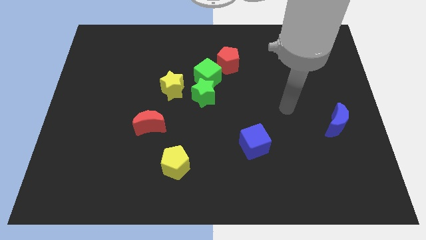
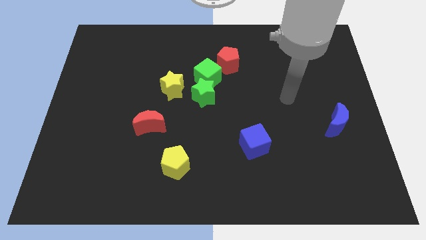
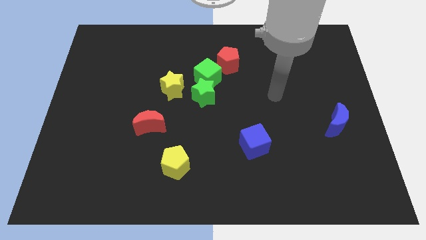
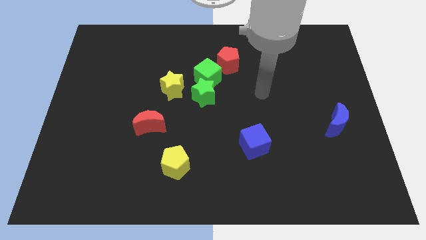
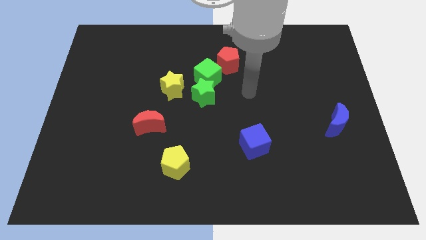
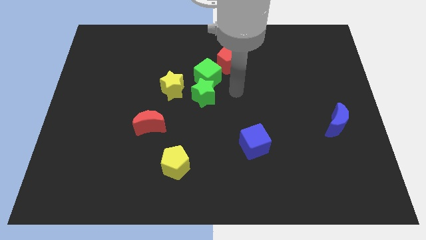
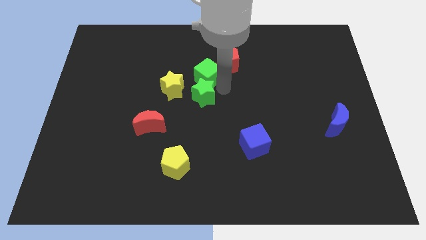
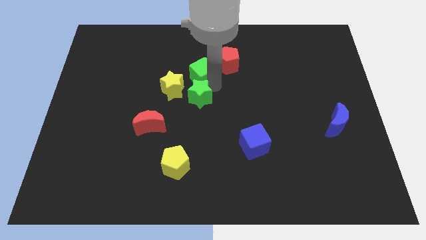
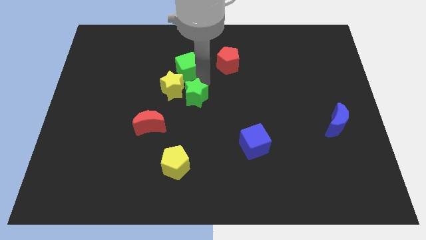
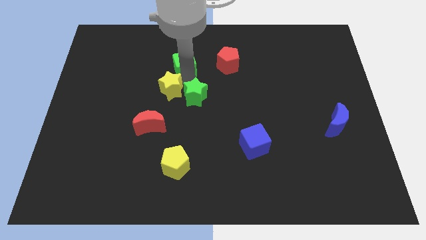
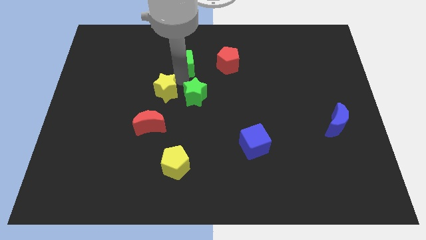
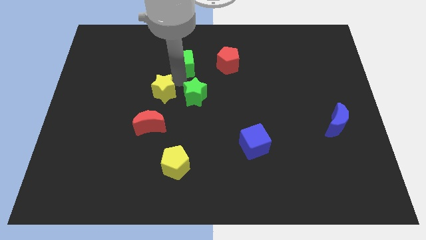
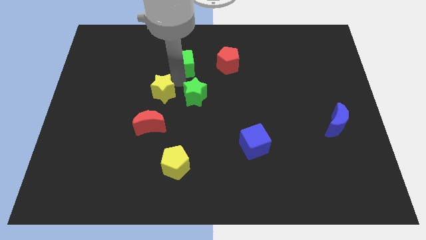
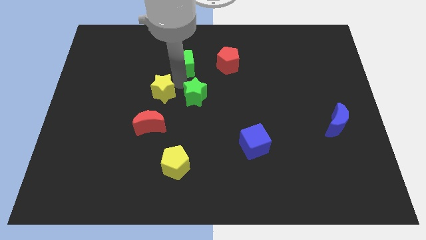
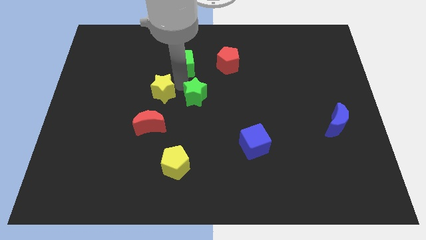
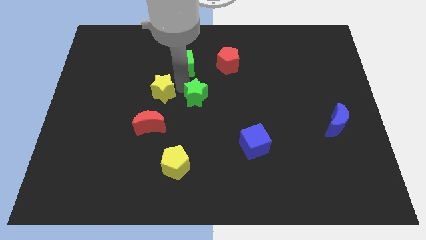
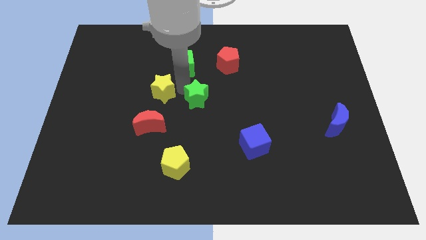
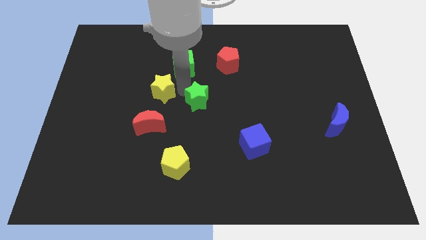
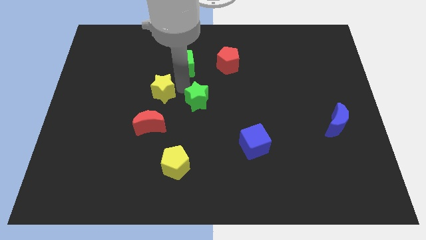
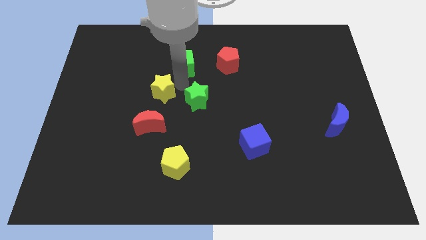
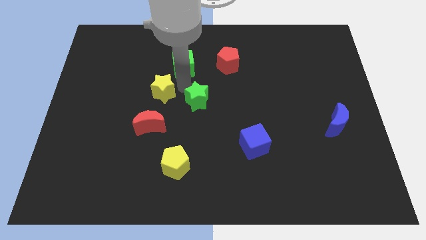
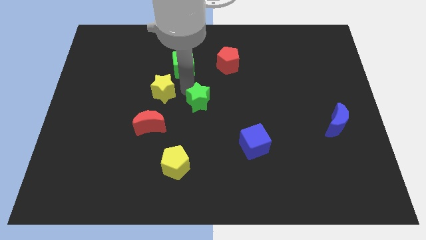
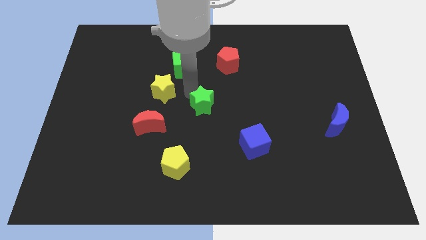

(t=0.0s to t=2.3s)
separate the green star from the green cube and yellow star

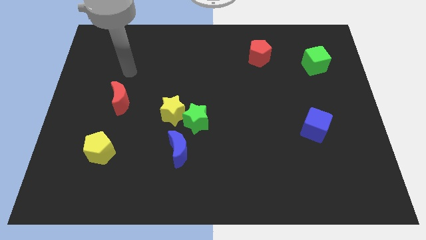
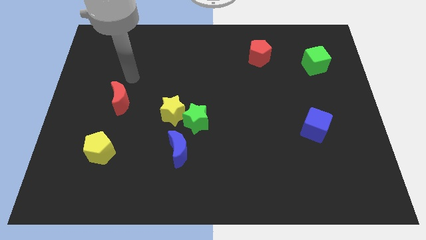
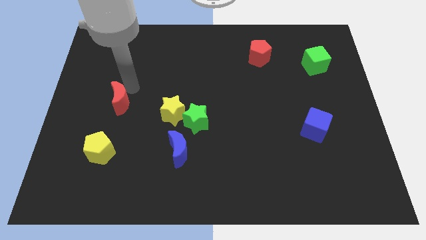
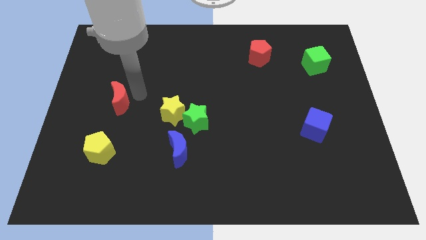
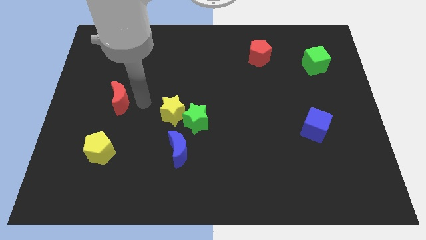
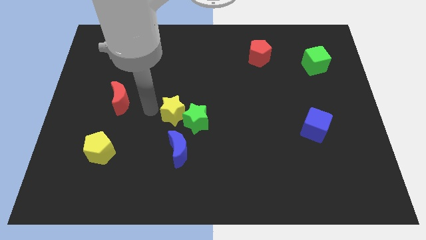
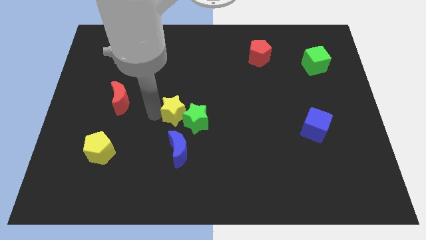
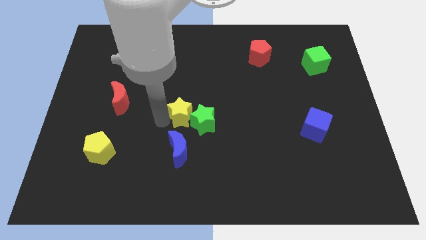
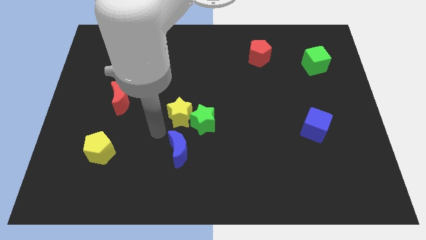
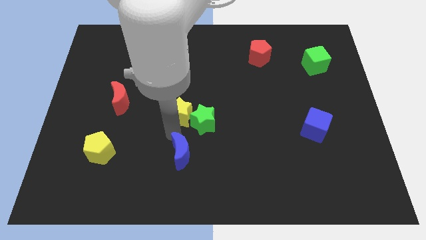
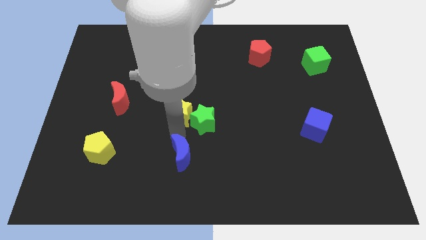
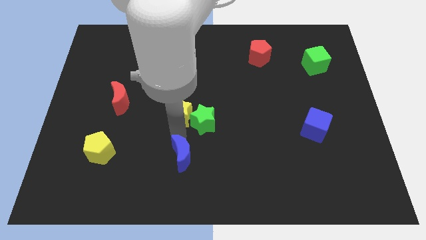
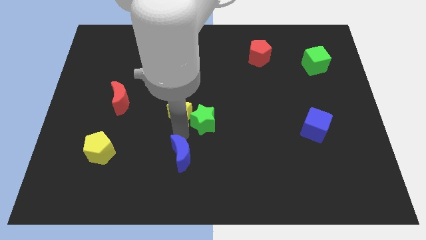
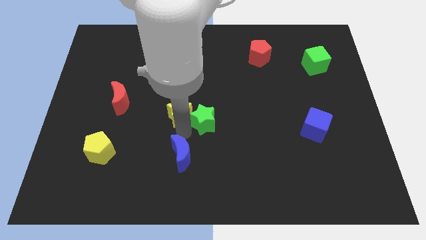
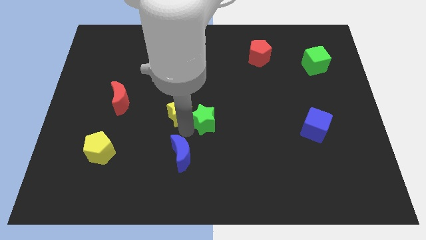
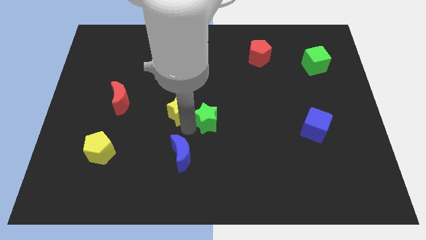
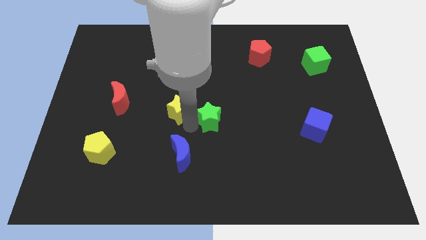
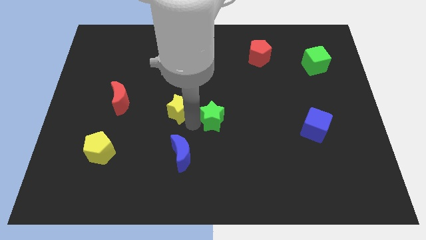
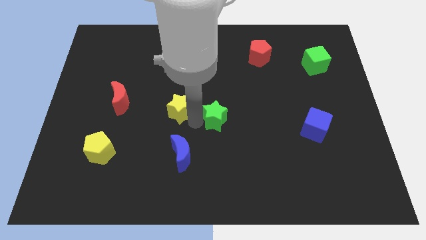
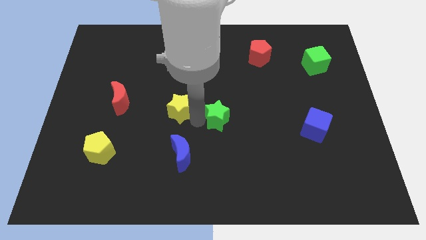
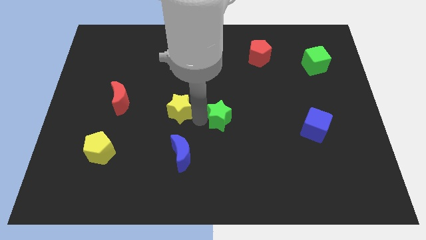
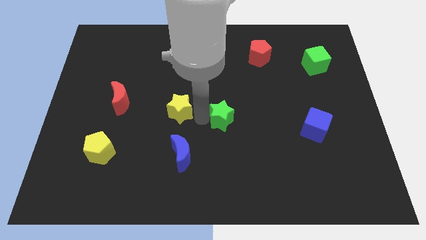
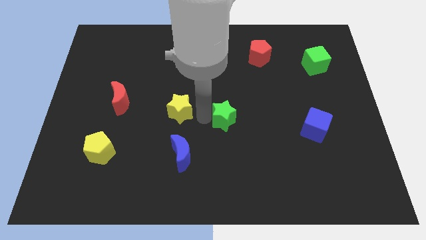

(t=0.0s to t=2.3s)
move the green star away from the yellow star and blue moon

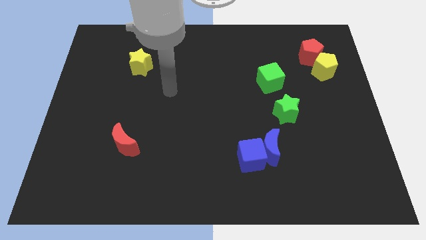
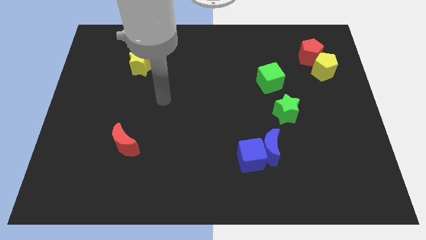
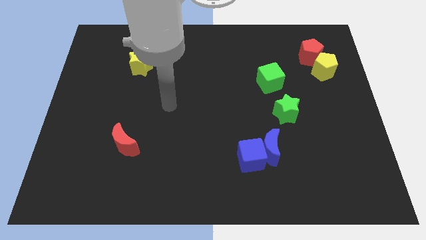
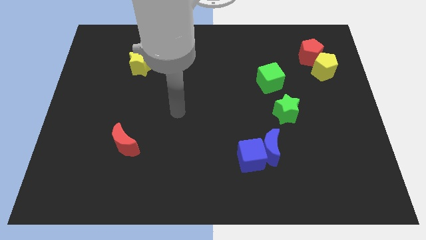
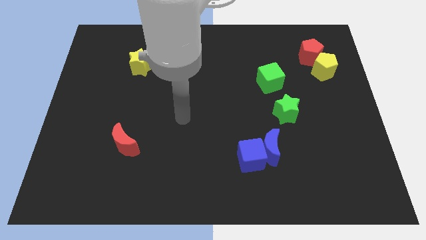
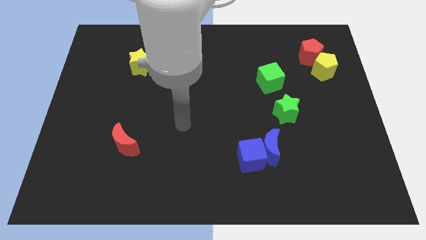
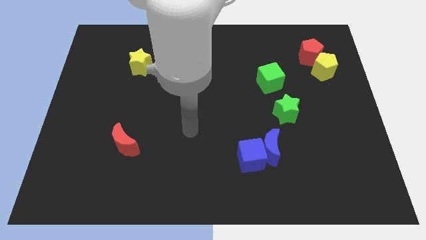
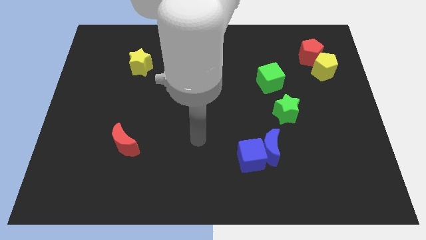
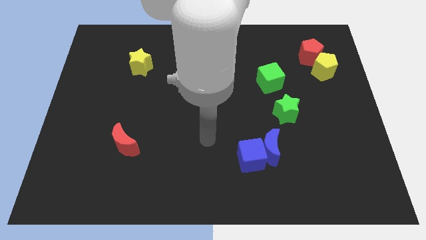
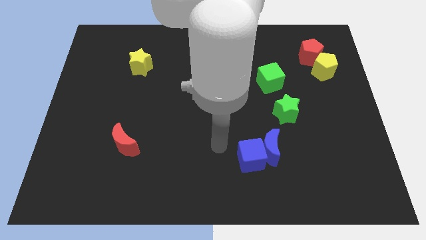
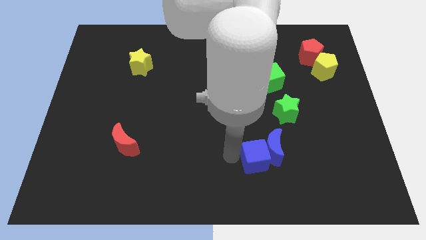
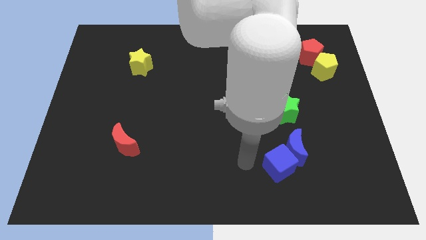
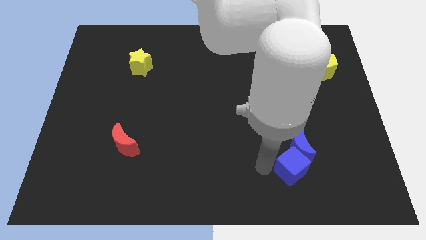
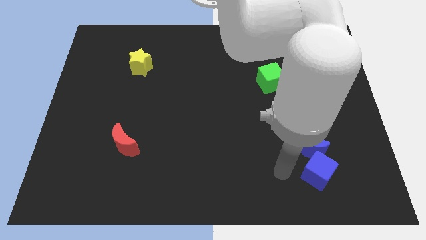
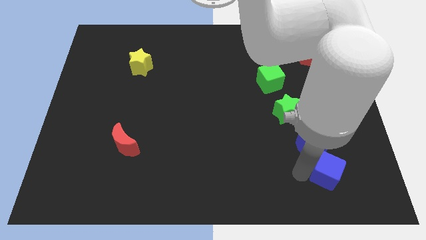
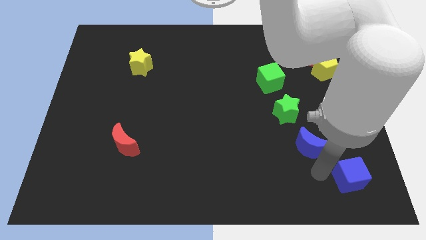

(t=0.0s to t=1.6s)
move the blue moon away from the blue cube

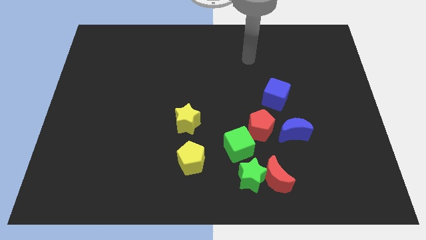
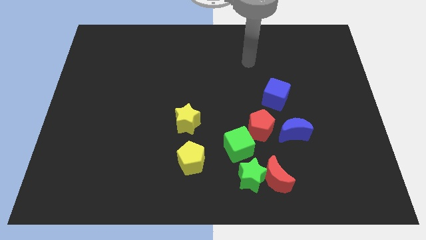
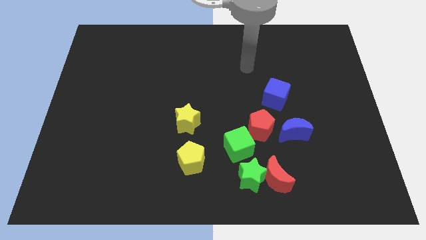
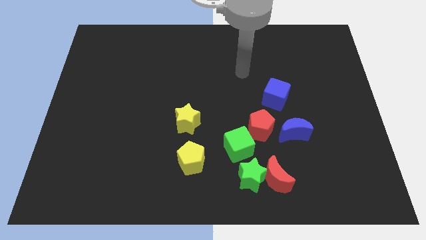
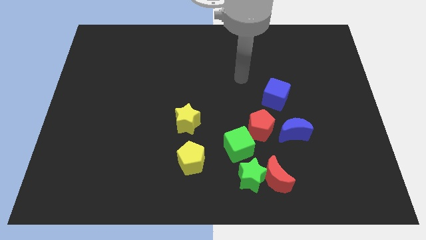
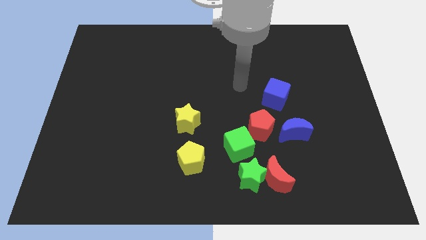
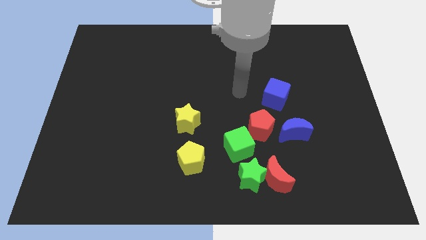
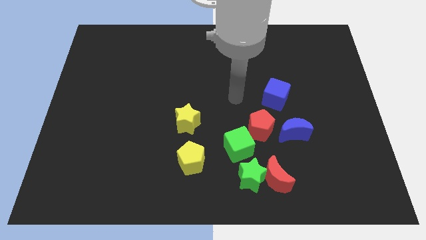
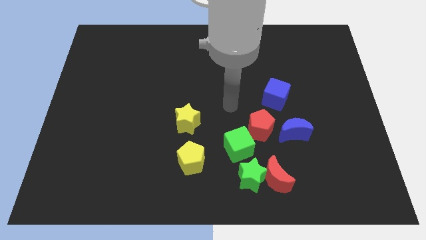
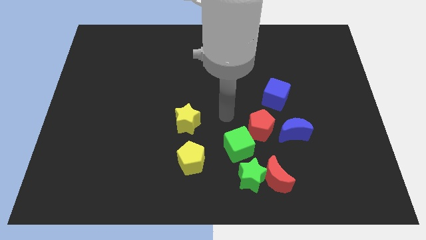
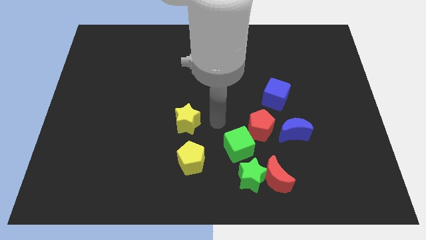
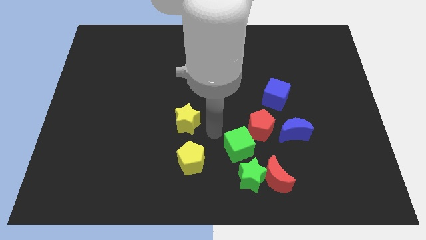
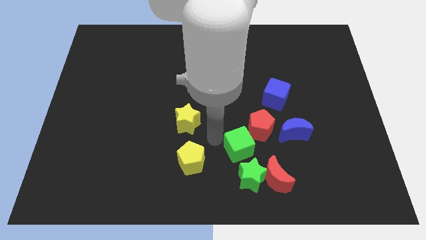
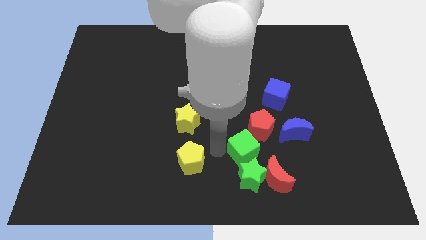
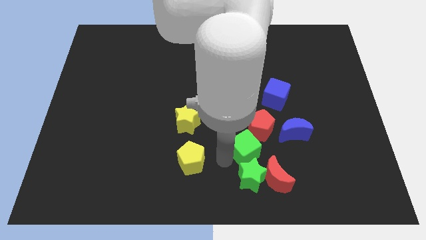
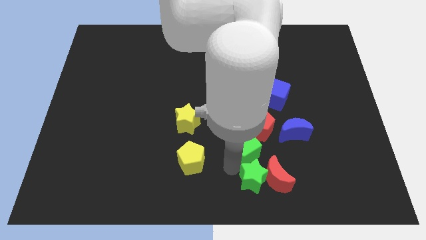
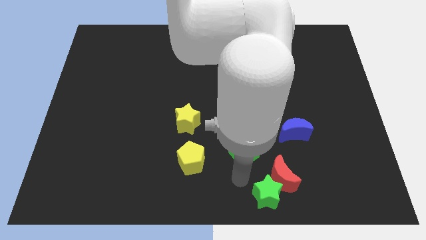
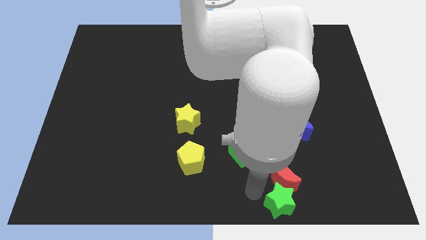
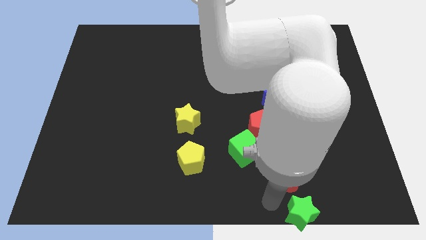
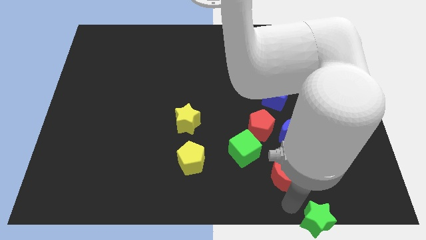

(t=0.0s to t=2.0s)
move the red moon away from the green star

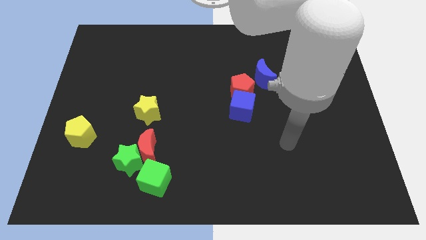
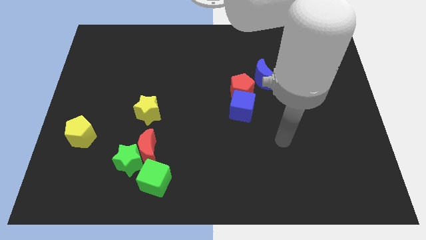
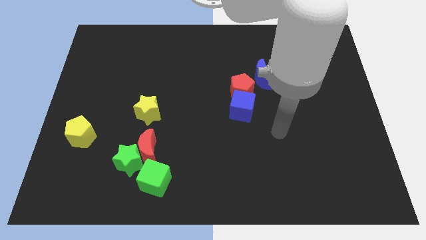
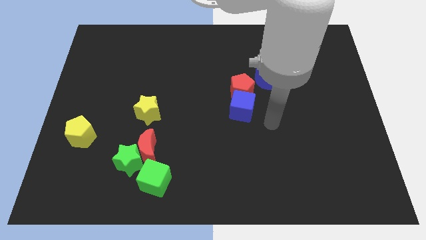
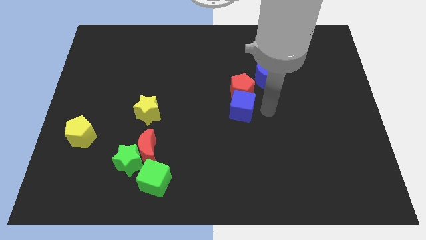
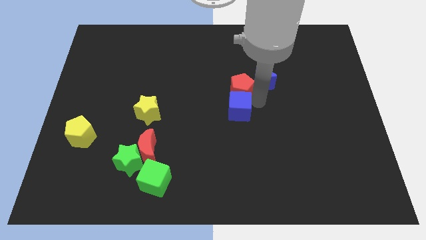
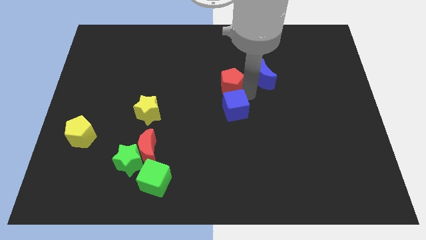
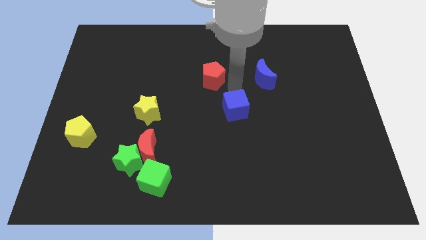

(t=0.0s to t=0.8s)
pull the blue cube apart from the red pentagon
